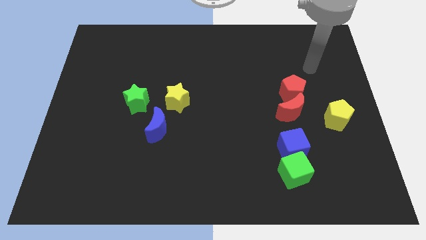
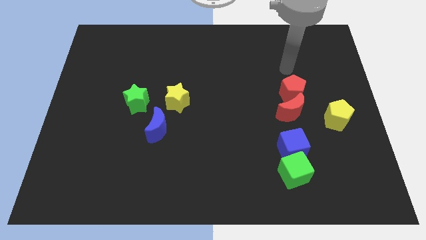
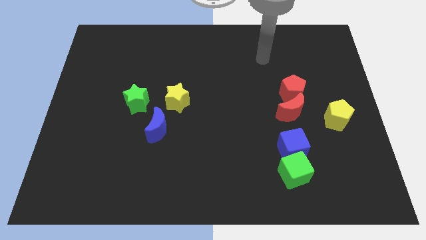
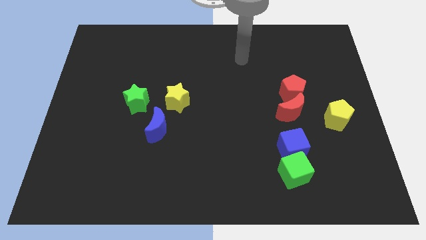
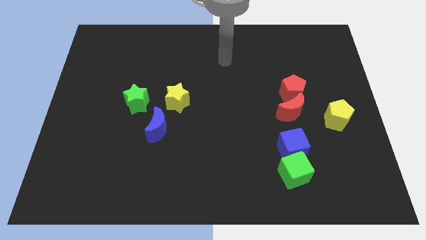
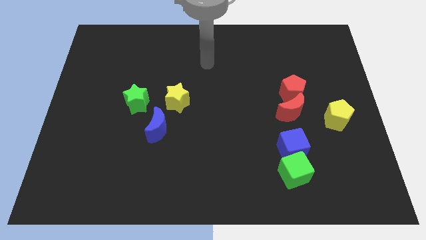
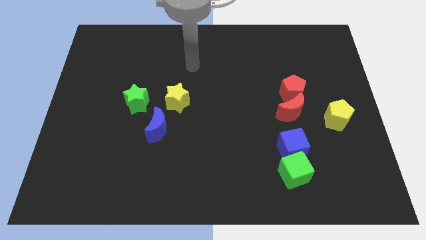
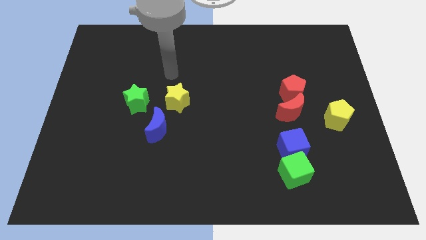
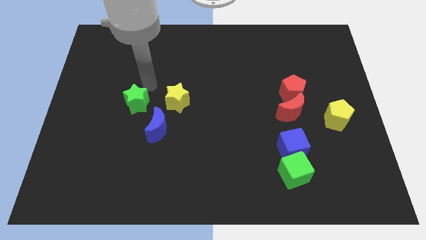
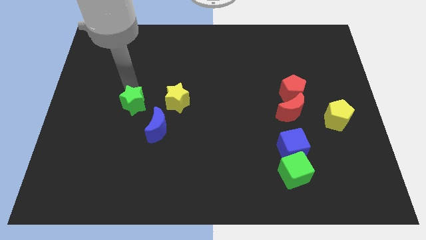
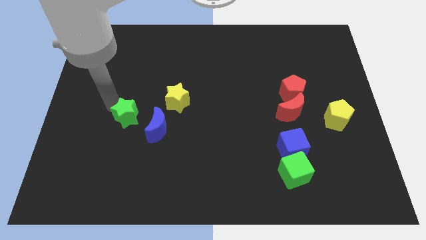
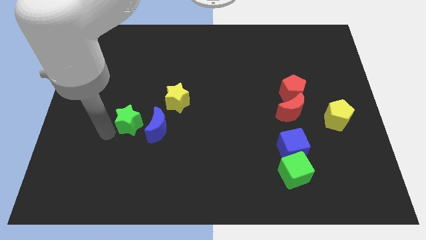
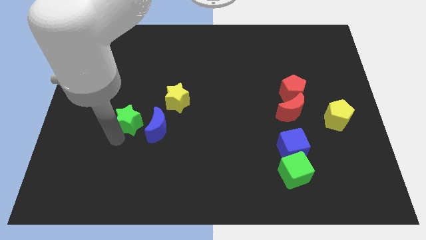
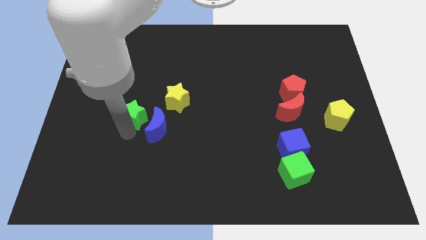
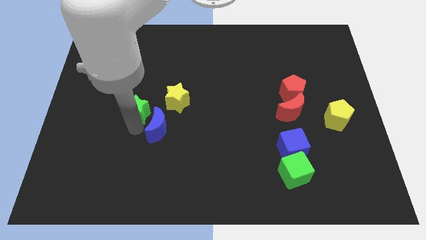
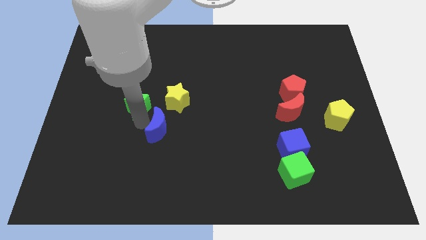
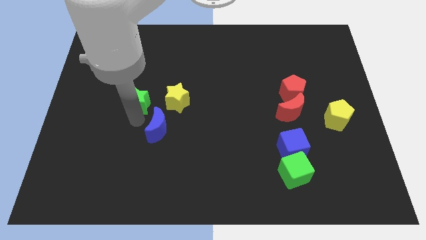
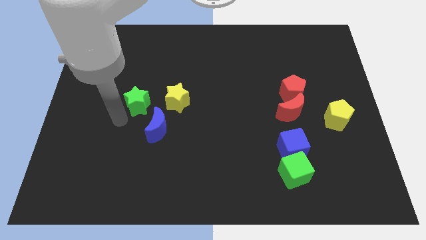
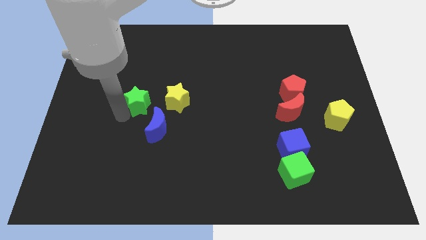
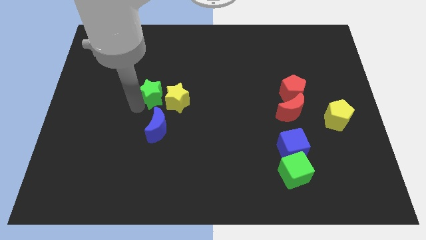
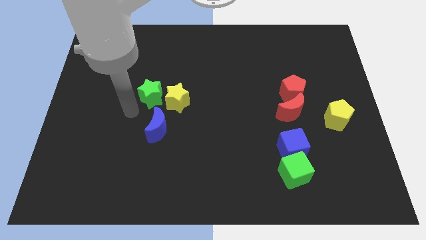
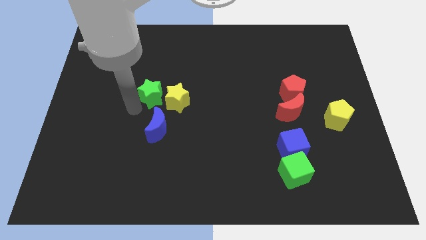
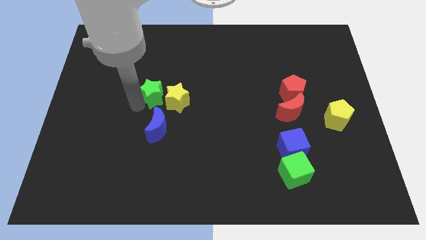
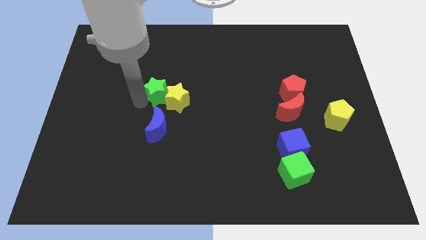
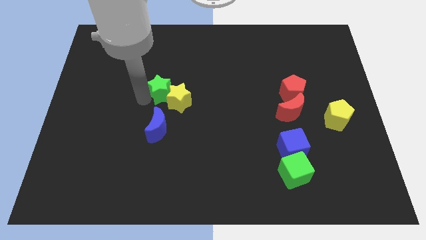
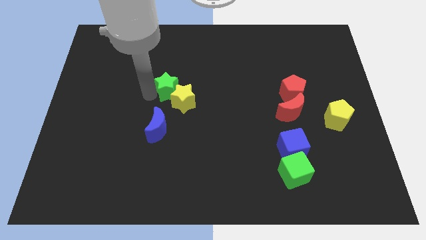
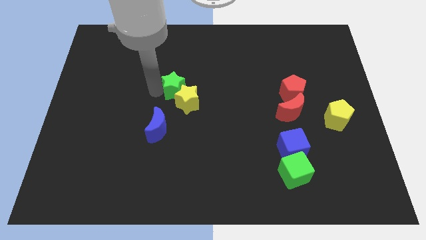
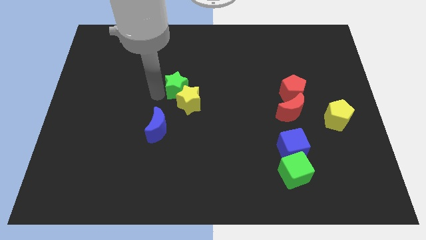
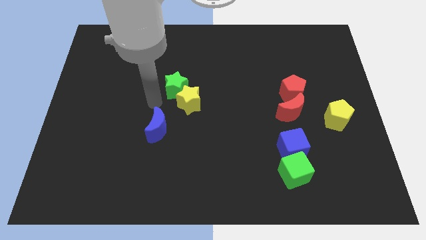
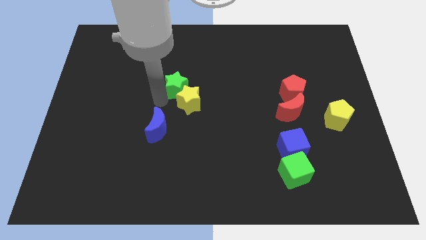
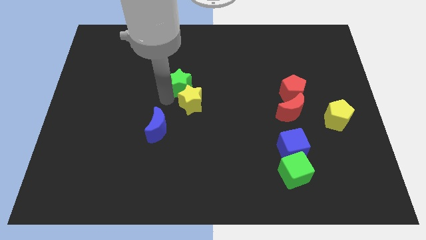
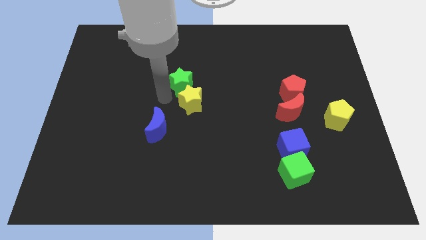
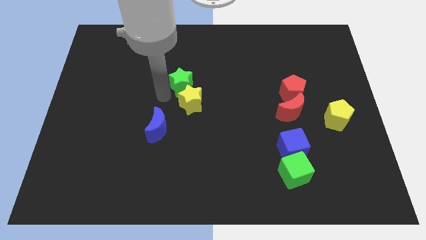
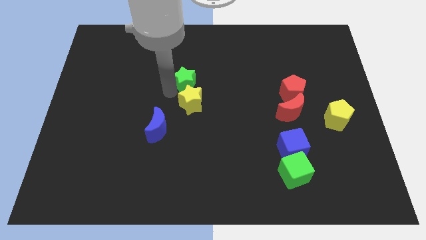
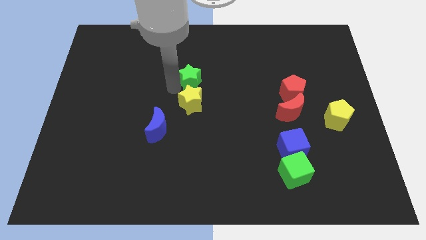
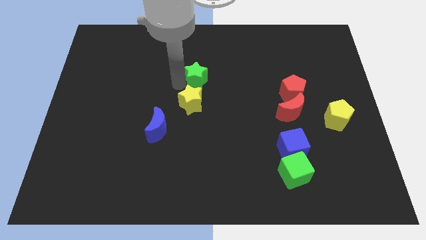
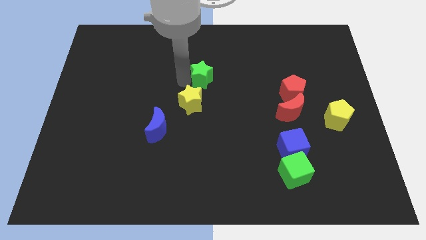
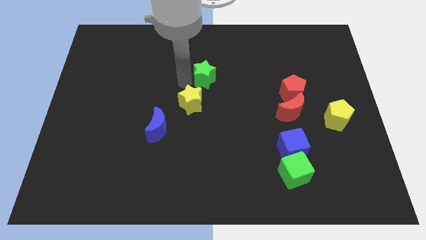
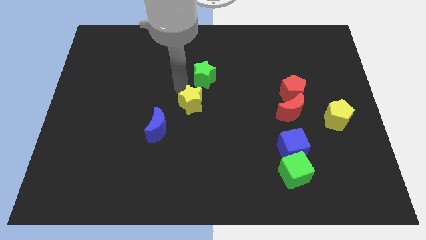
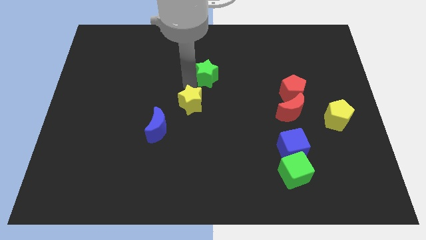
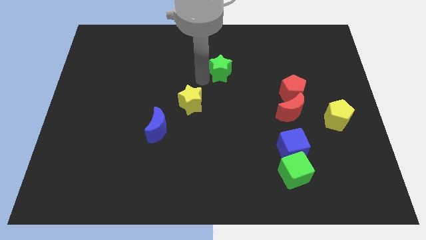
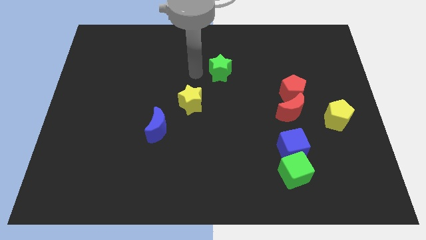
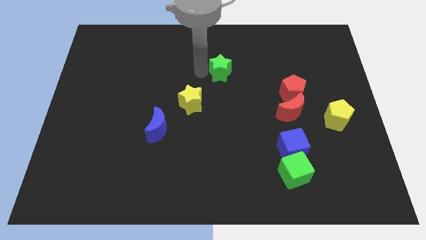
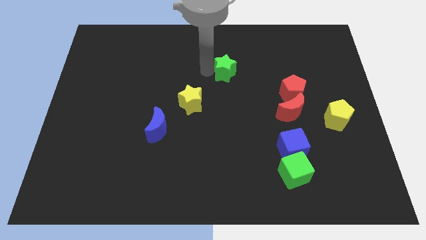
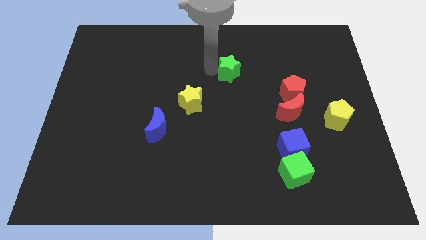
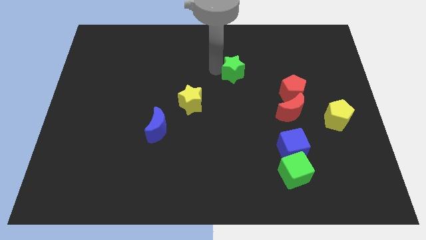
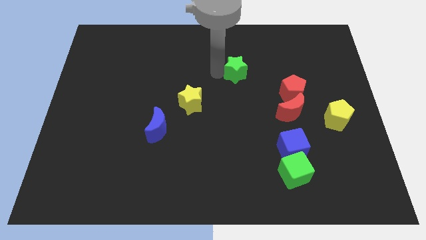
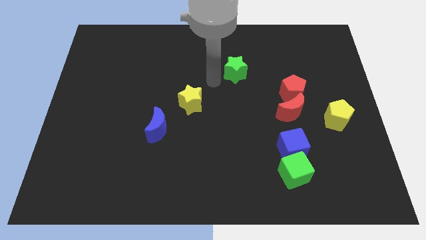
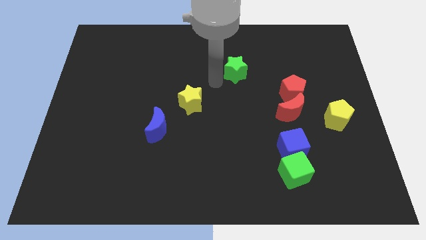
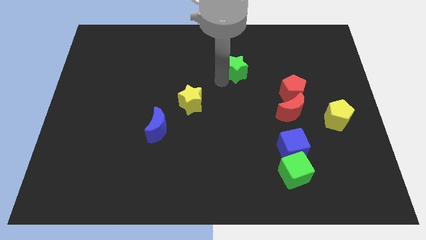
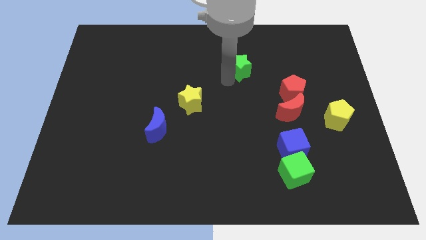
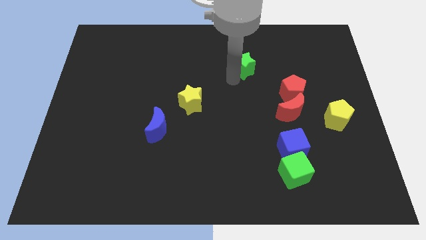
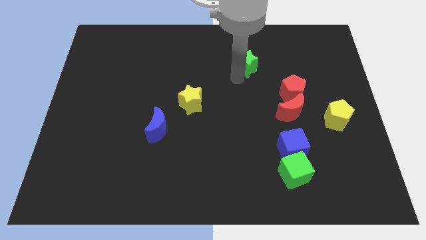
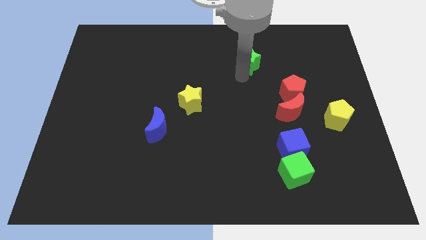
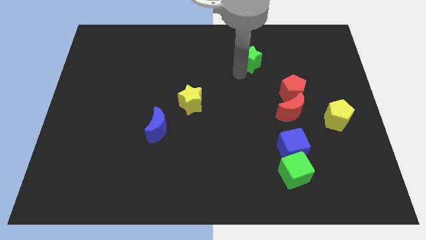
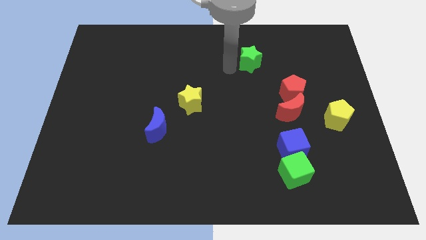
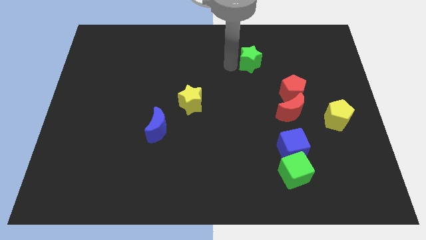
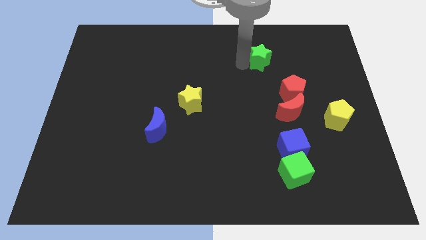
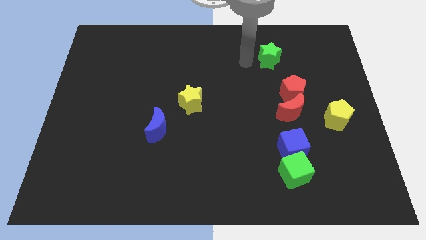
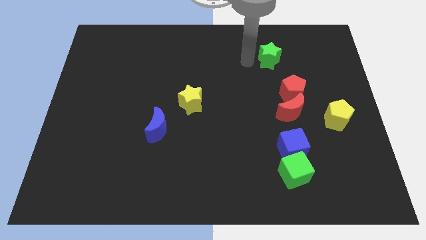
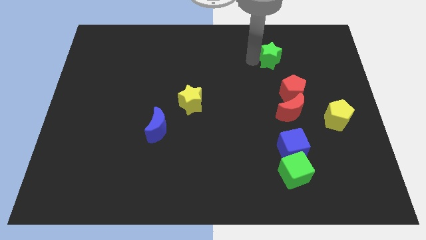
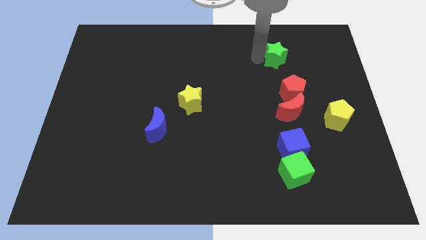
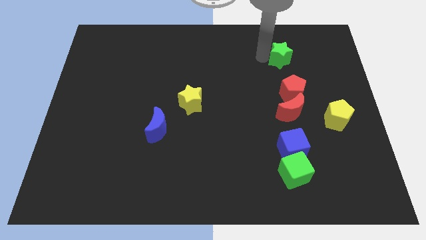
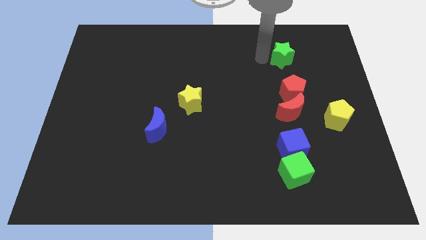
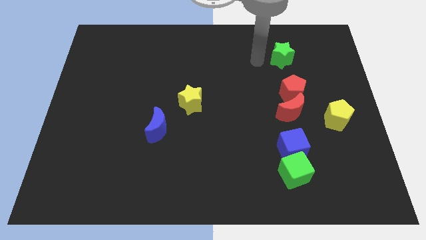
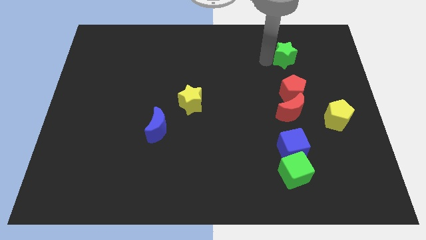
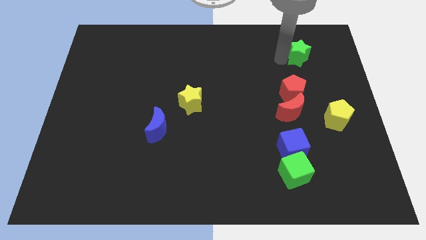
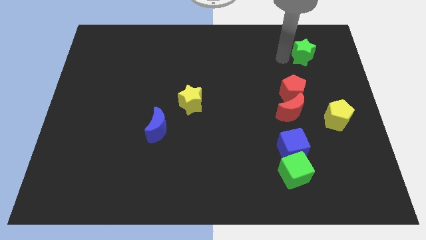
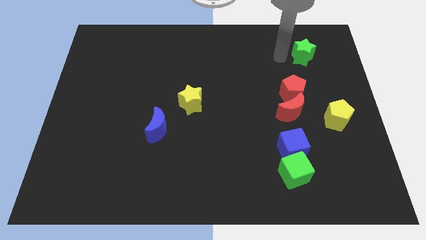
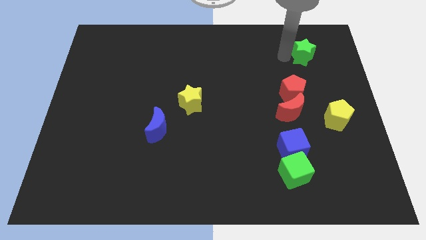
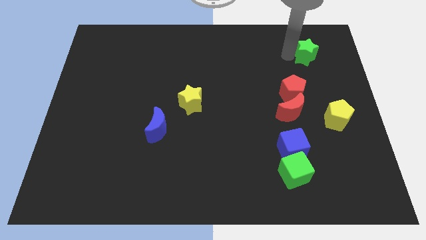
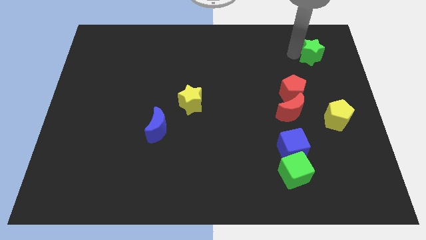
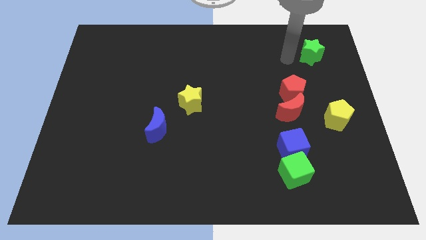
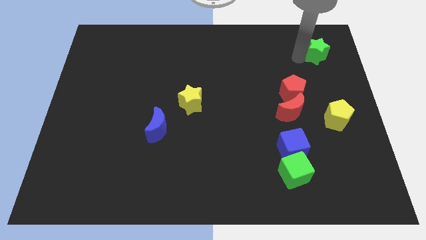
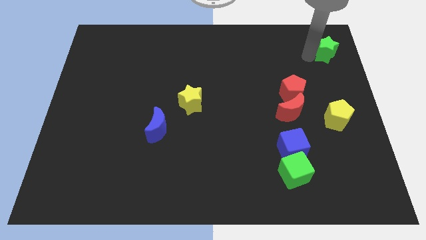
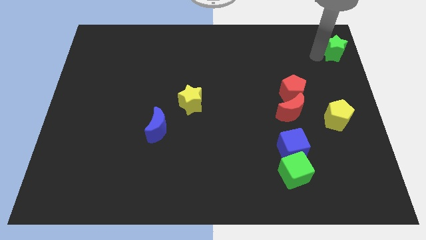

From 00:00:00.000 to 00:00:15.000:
slide the green star to the top right corner
